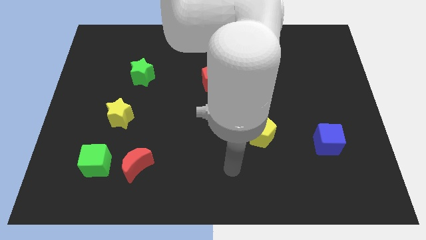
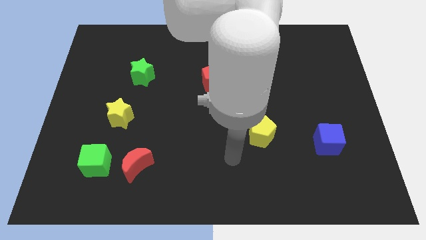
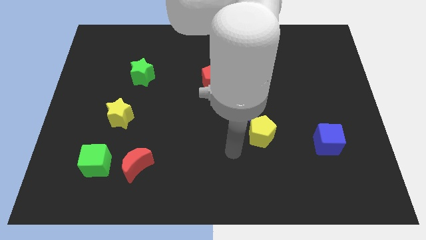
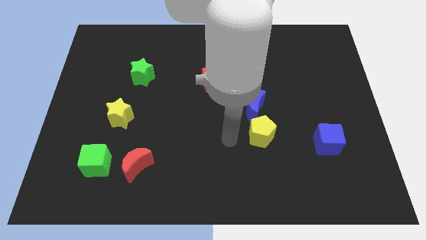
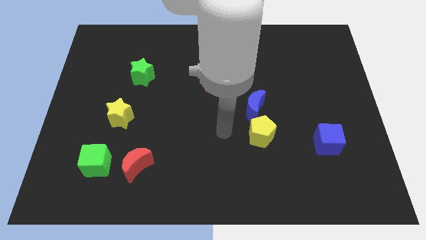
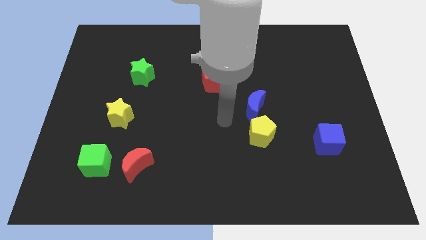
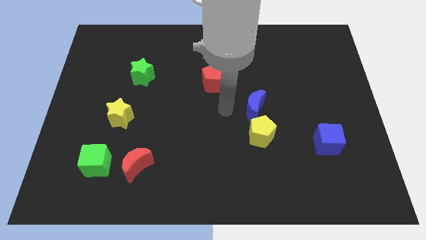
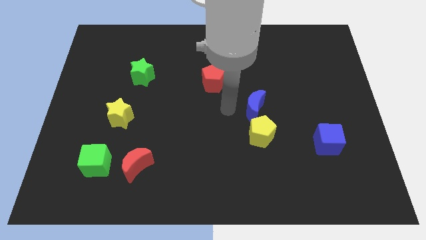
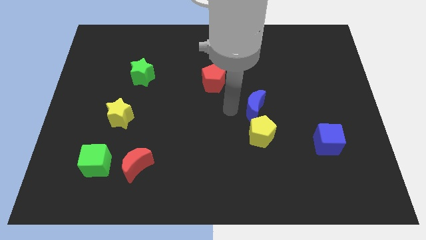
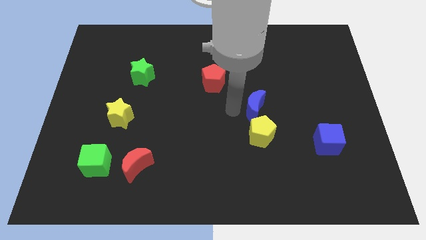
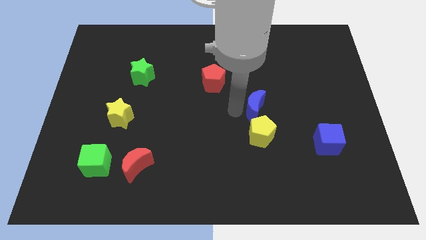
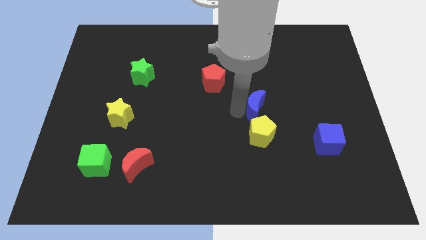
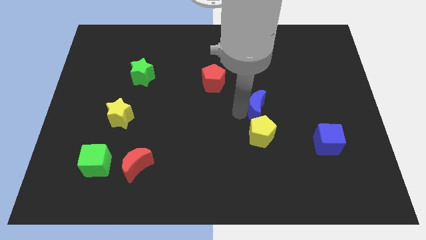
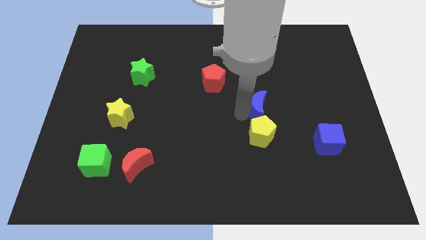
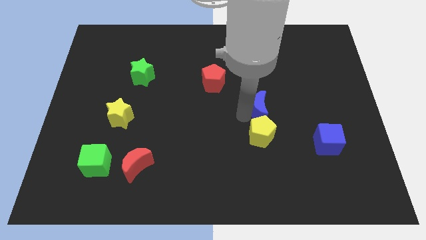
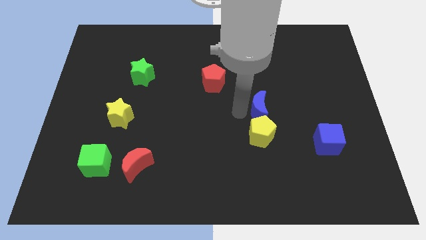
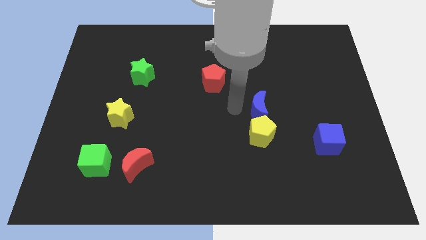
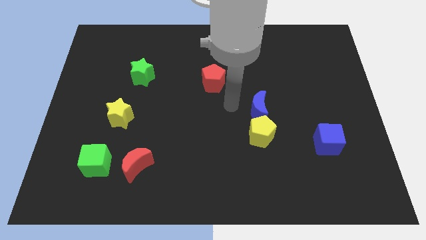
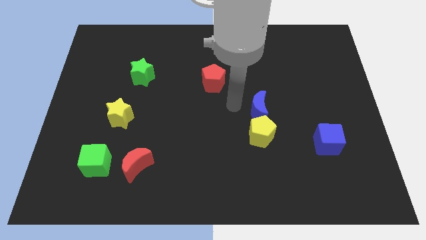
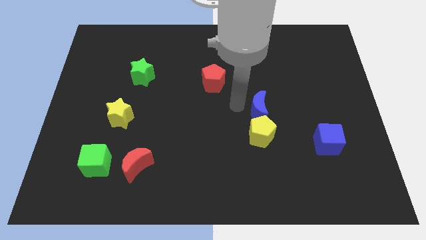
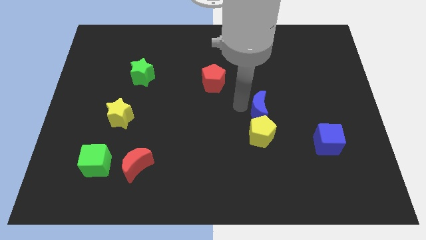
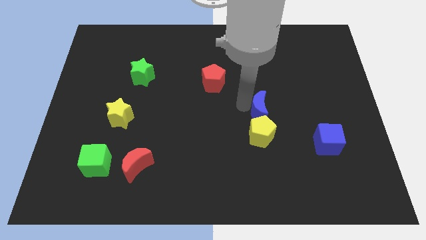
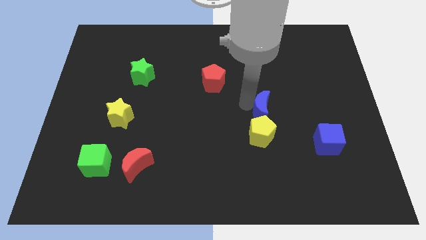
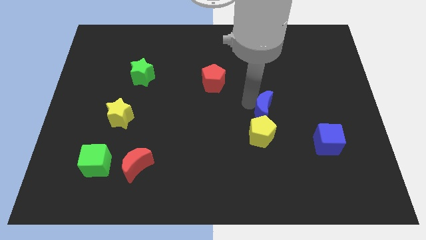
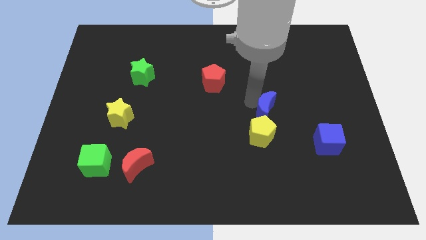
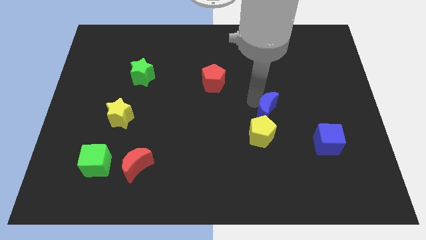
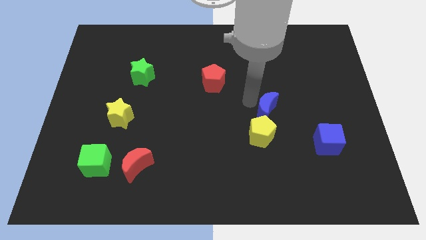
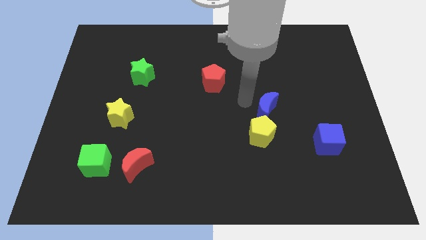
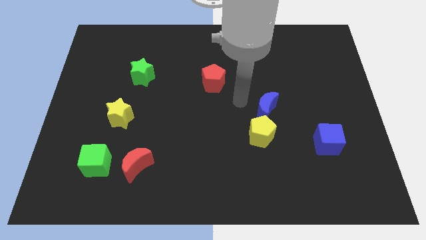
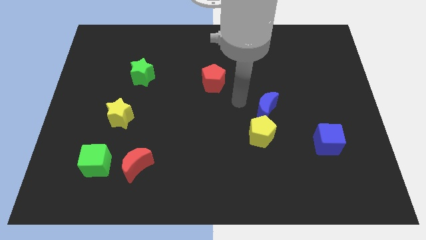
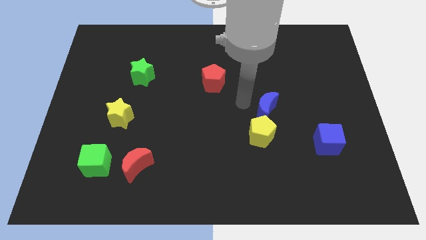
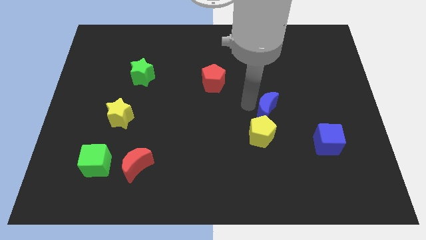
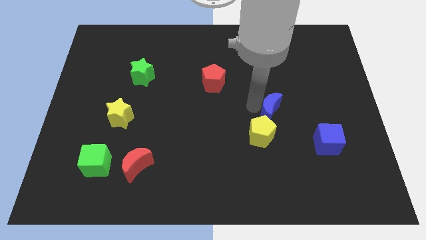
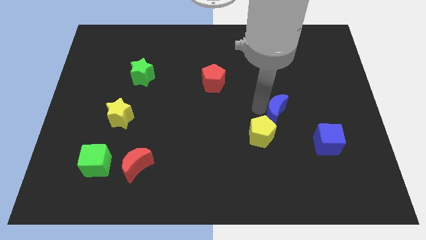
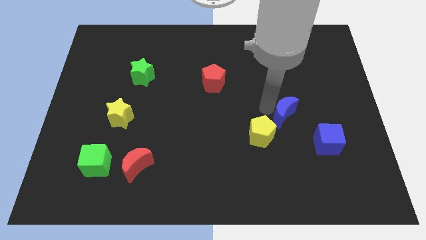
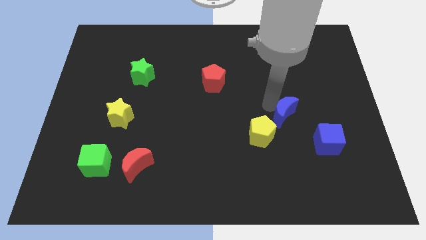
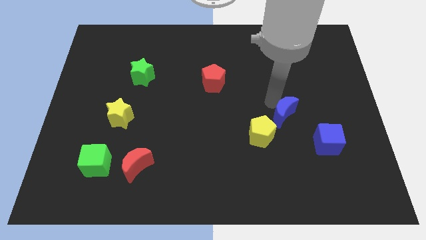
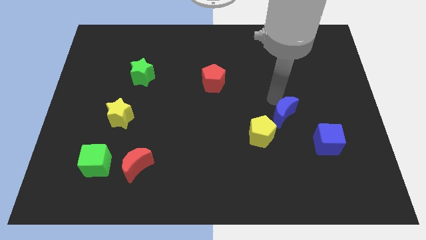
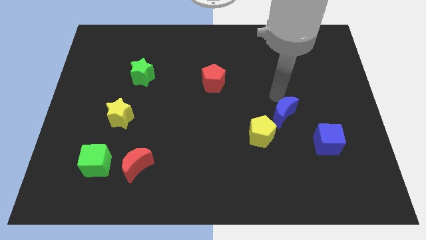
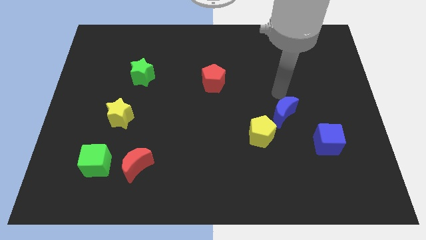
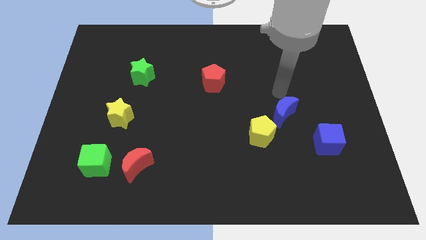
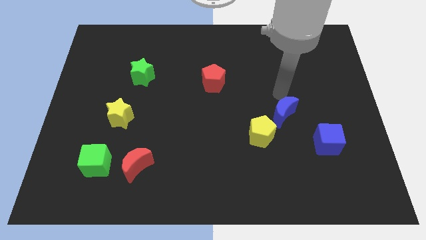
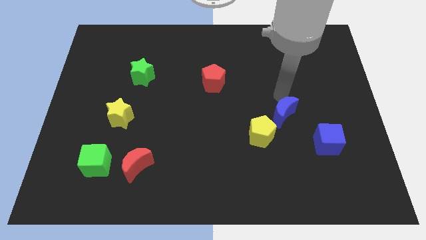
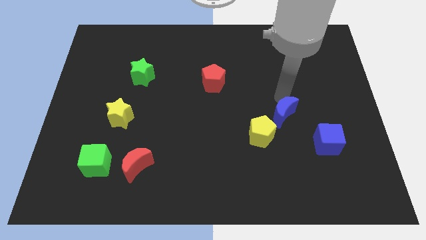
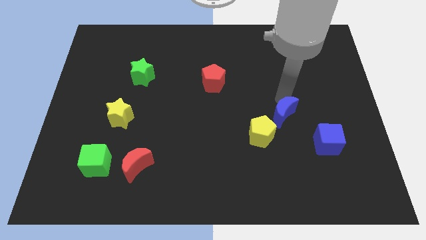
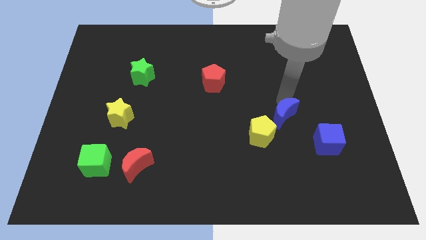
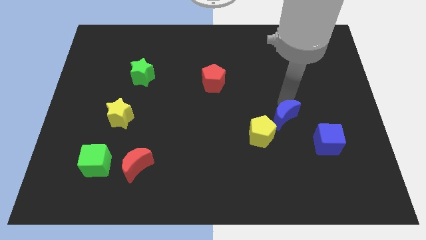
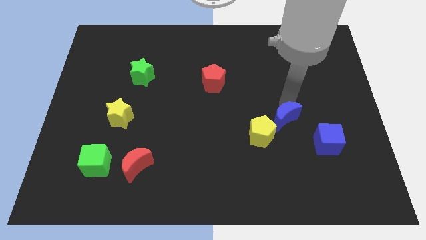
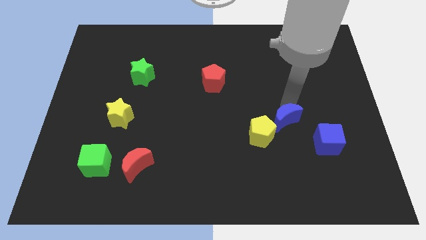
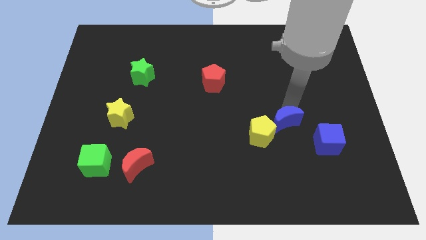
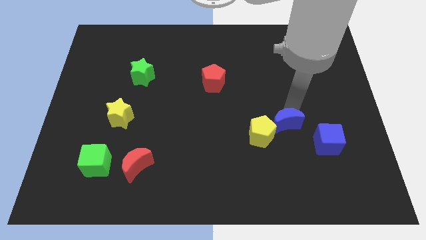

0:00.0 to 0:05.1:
slide the blue moon just left of the blue cube

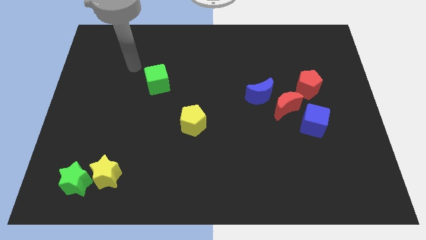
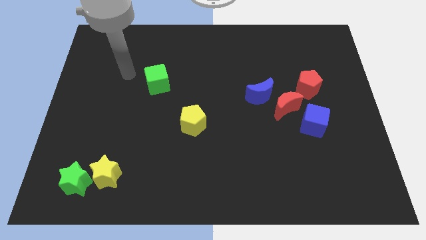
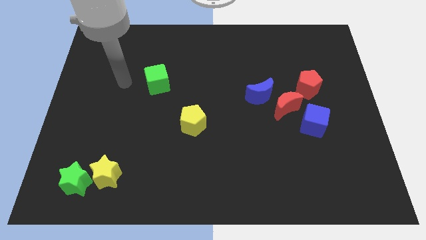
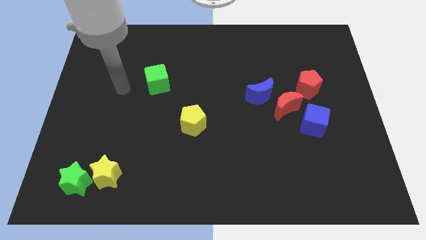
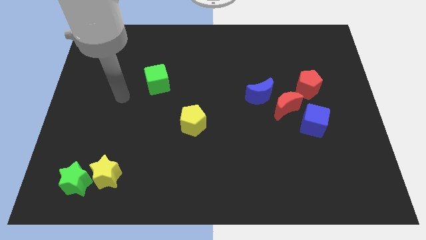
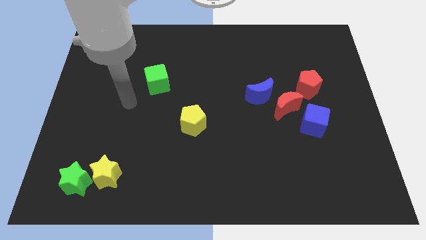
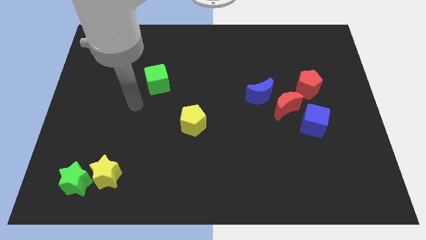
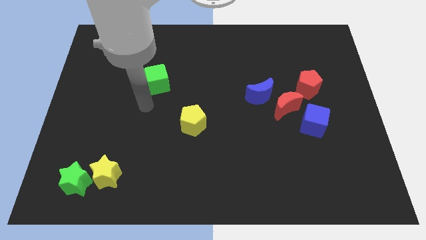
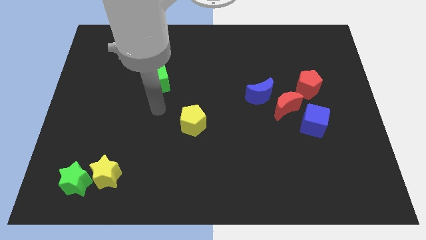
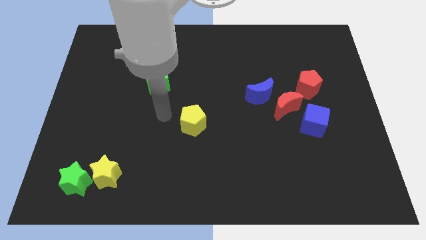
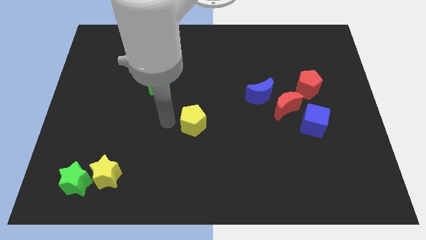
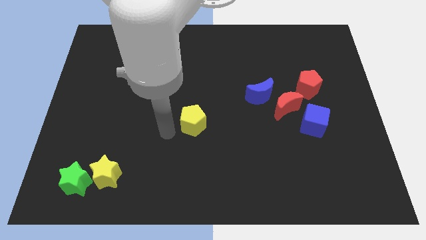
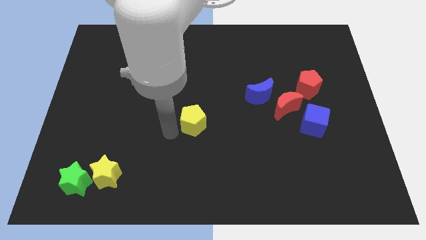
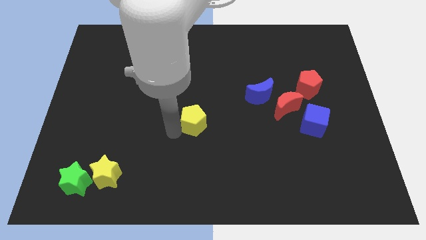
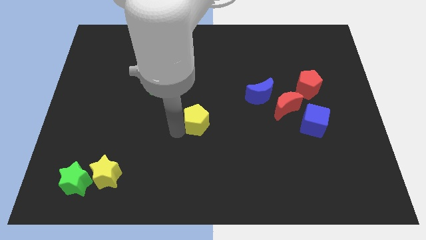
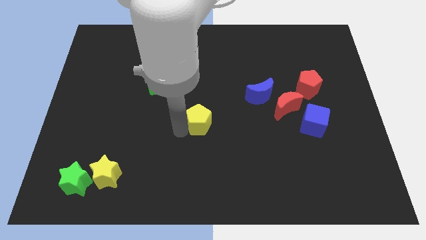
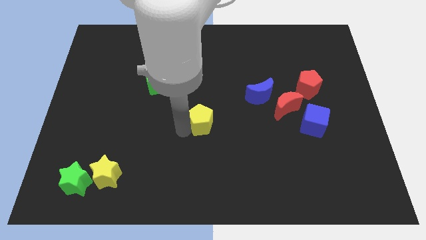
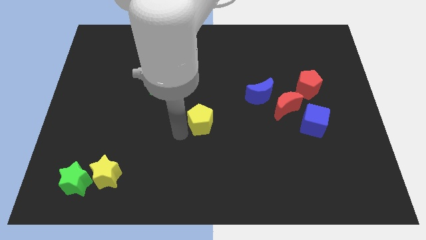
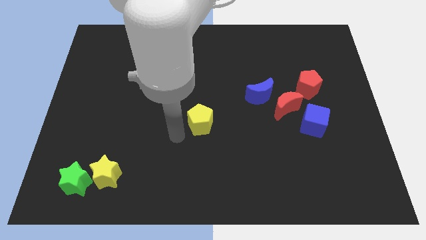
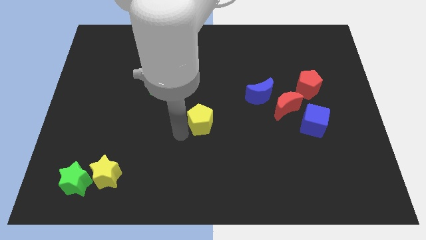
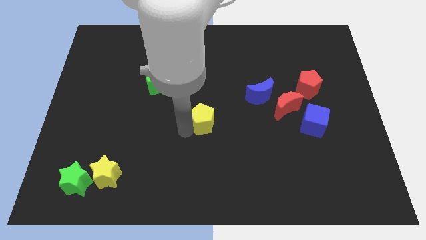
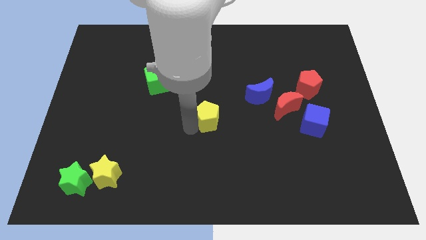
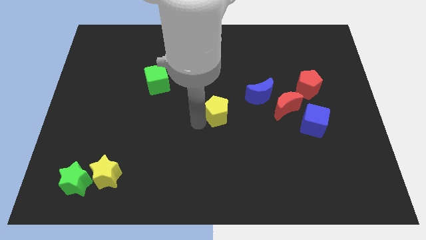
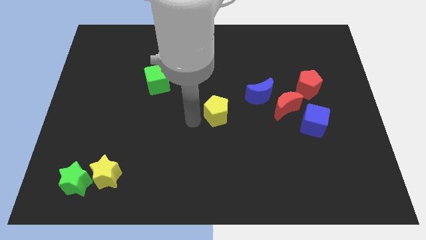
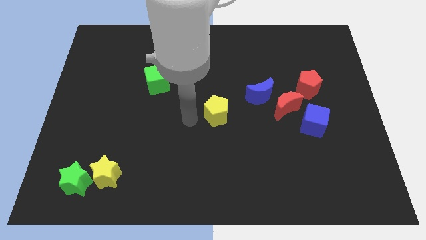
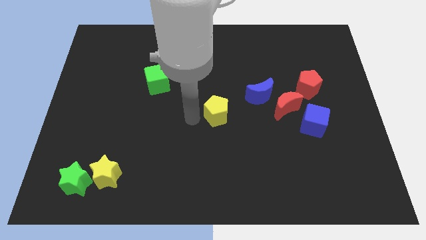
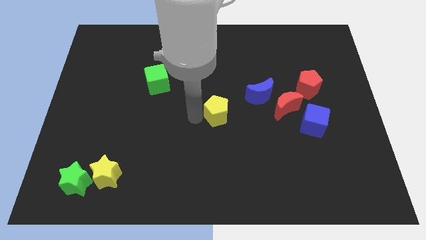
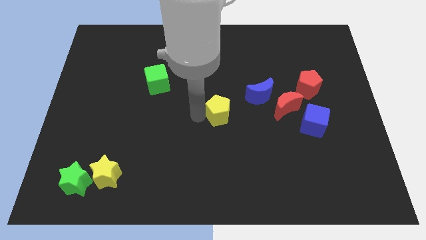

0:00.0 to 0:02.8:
move the yellow pentagon to the left side of the red moon

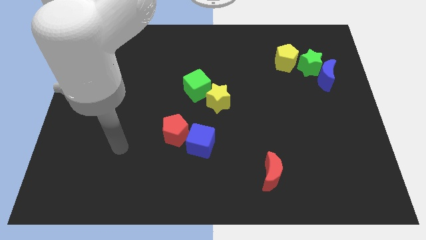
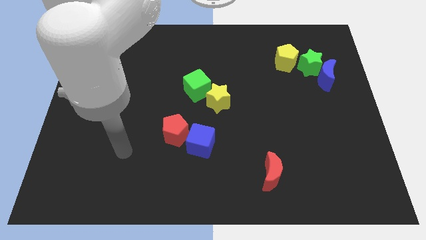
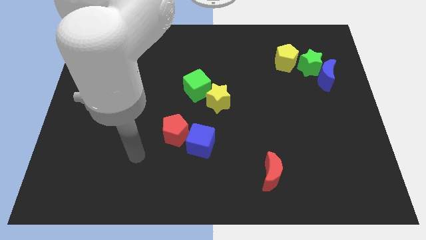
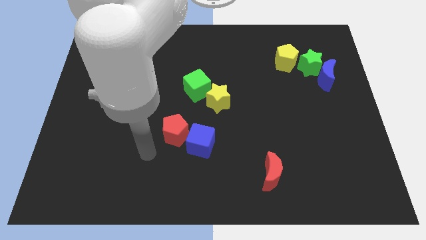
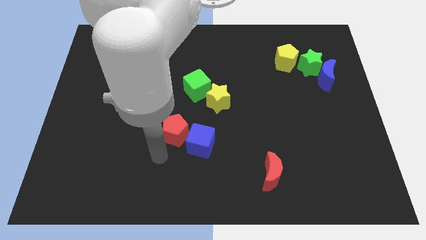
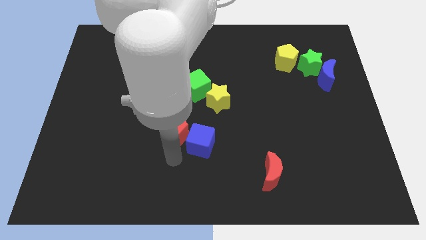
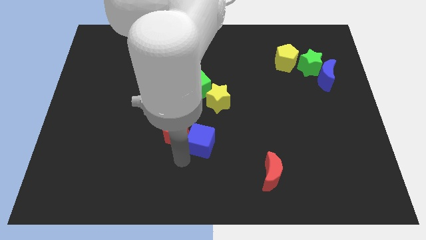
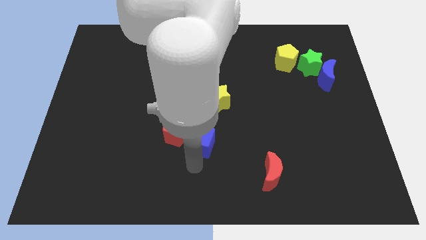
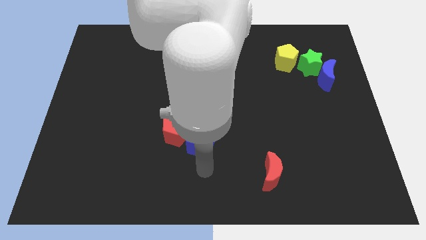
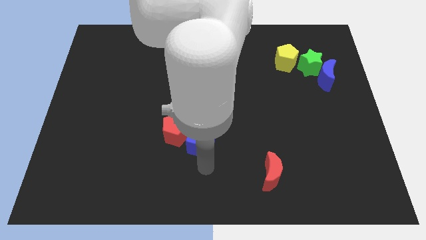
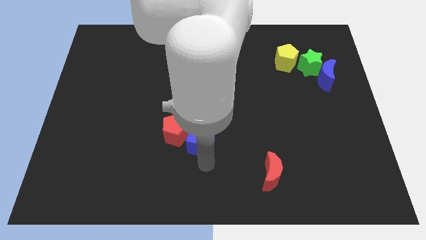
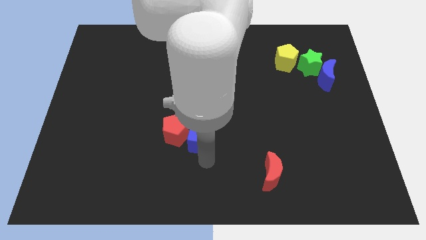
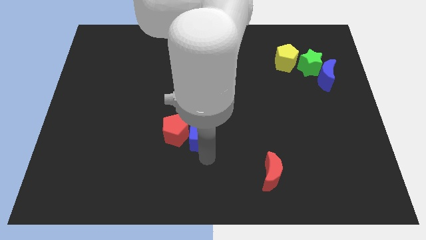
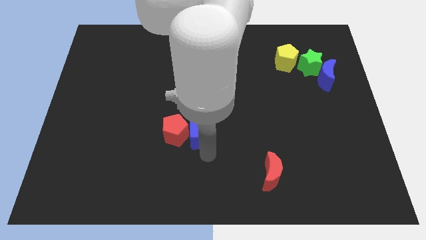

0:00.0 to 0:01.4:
push the blue cube to the bottom left of the yellow star
